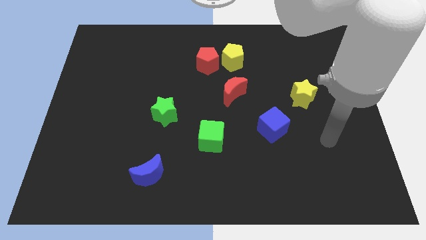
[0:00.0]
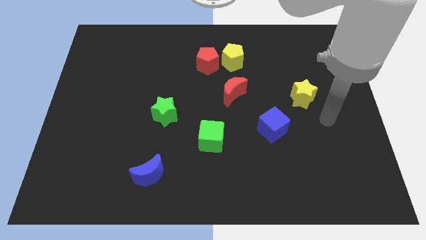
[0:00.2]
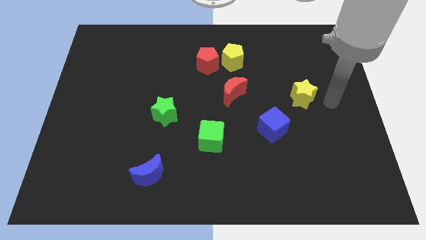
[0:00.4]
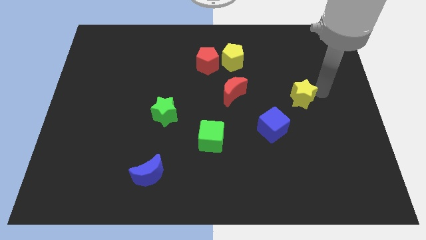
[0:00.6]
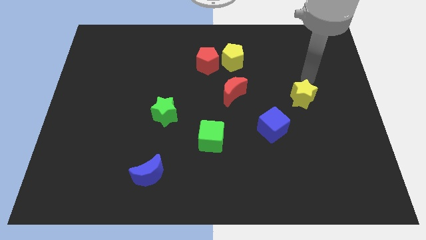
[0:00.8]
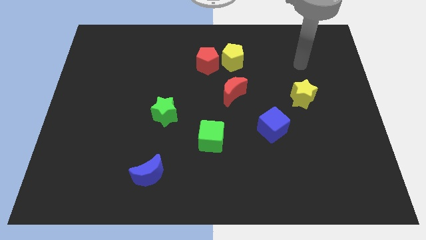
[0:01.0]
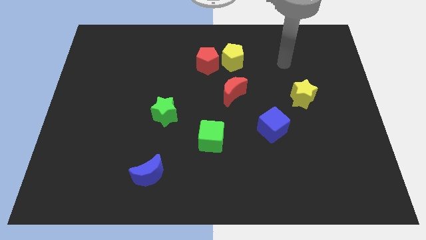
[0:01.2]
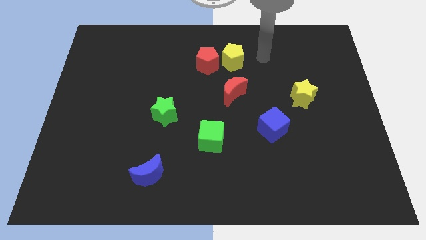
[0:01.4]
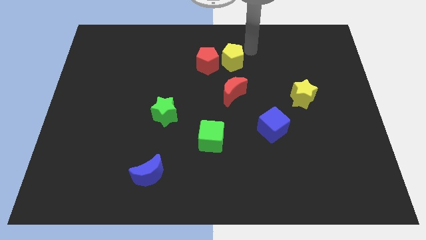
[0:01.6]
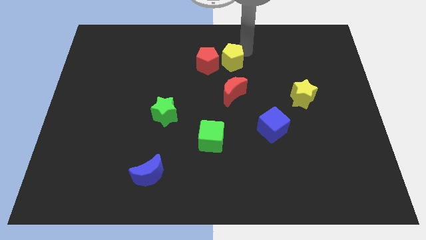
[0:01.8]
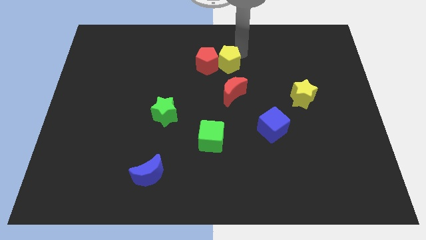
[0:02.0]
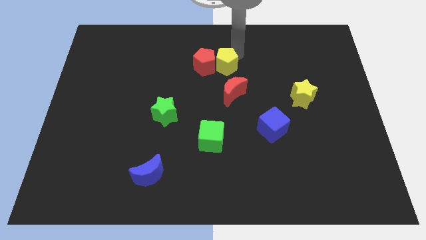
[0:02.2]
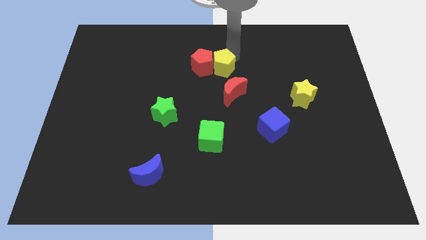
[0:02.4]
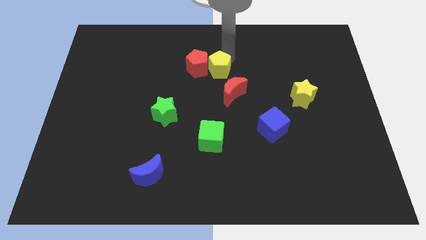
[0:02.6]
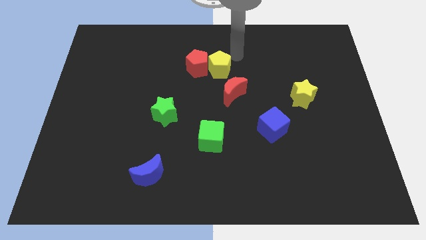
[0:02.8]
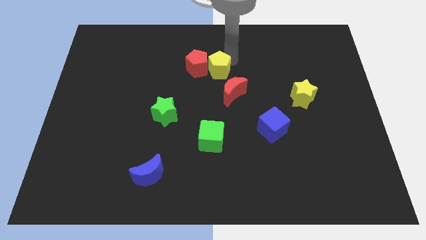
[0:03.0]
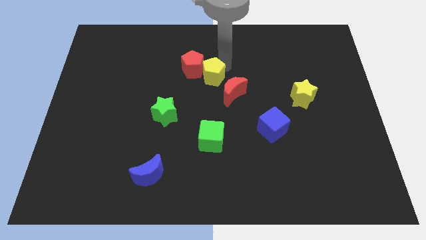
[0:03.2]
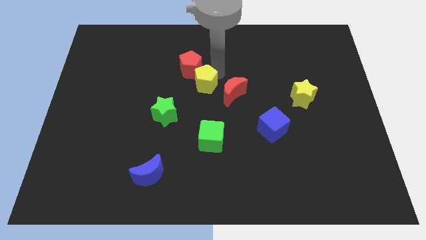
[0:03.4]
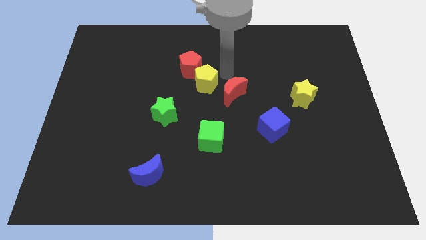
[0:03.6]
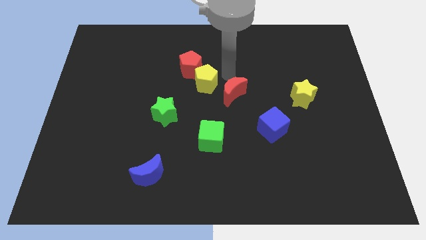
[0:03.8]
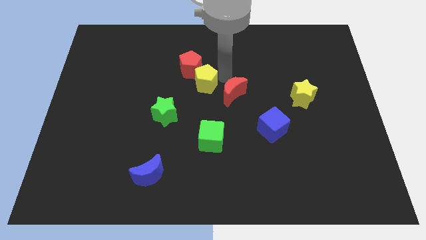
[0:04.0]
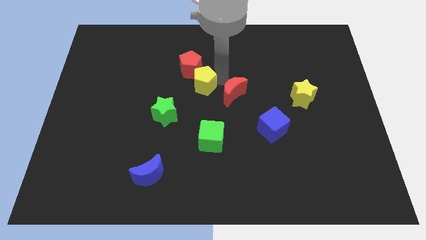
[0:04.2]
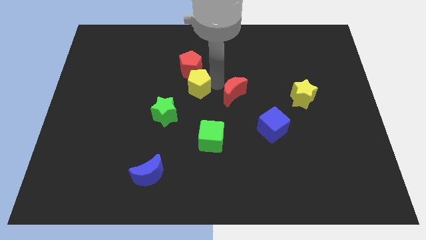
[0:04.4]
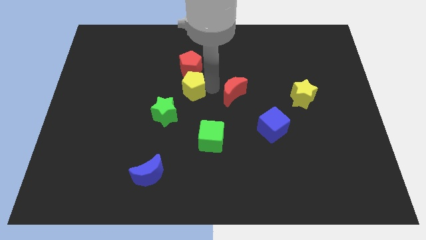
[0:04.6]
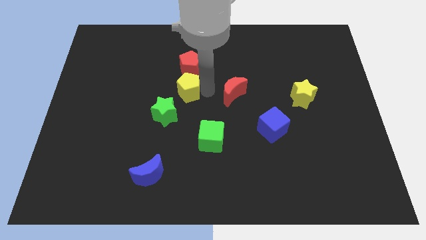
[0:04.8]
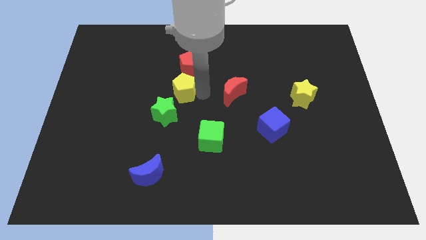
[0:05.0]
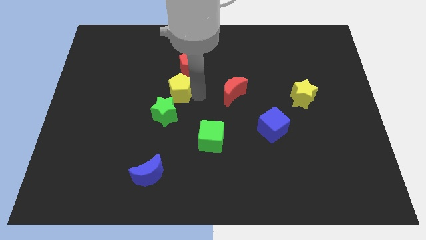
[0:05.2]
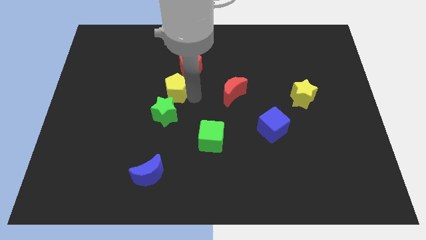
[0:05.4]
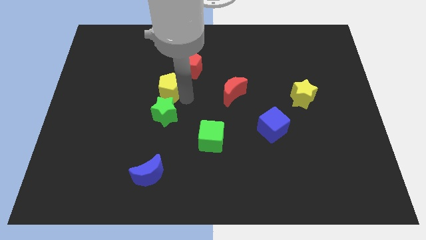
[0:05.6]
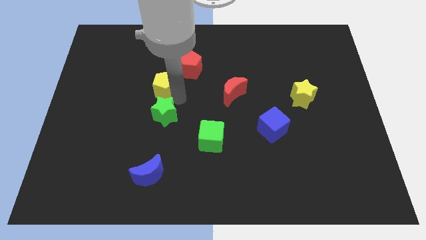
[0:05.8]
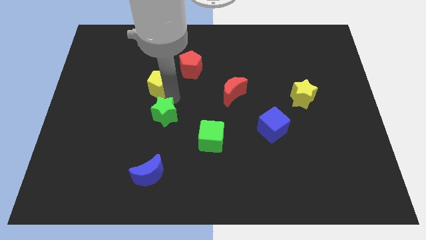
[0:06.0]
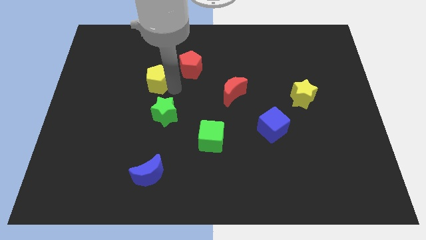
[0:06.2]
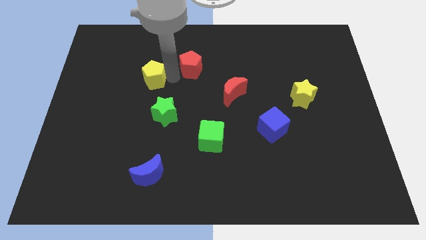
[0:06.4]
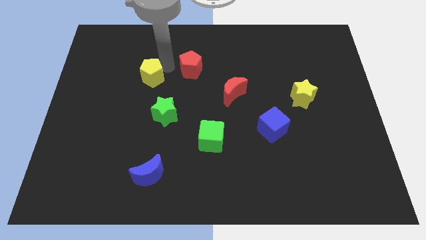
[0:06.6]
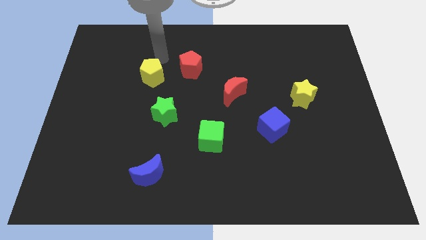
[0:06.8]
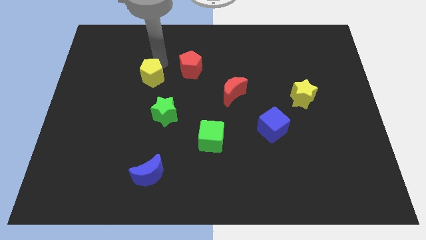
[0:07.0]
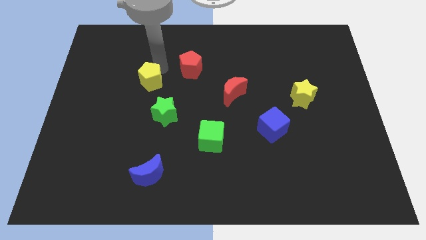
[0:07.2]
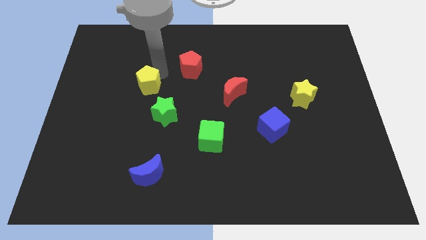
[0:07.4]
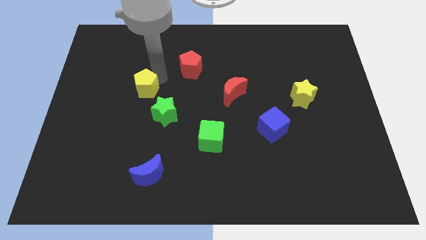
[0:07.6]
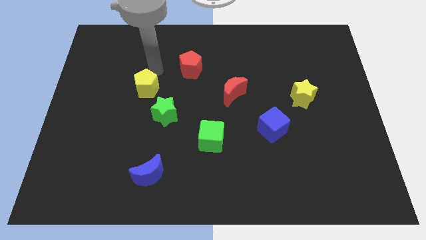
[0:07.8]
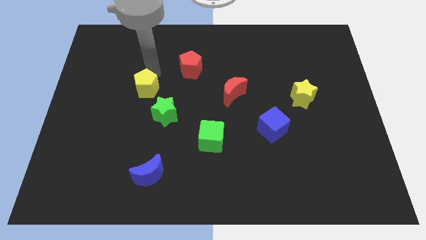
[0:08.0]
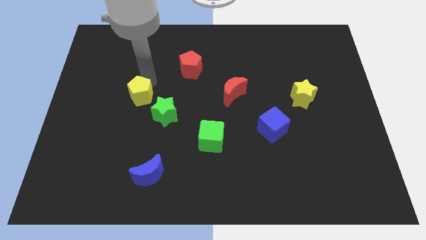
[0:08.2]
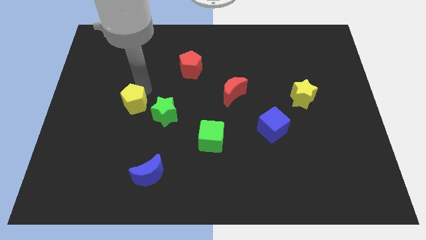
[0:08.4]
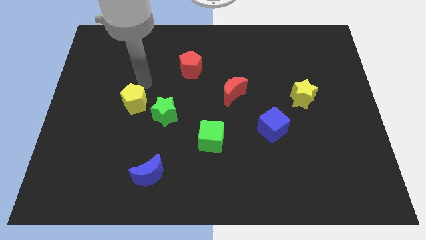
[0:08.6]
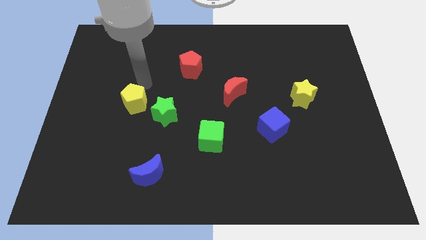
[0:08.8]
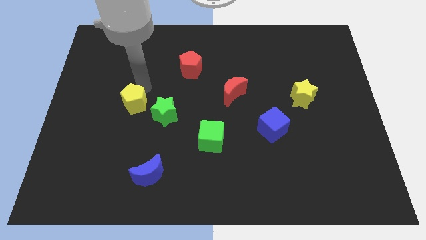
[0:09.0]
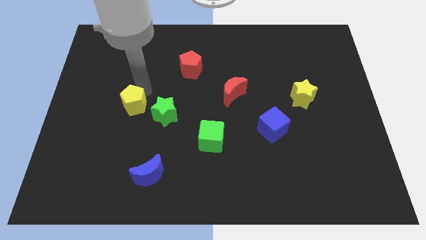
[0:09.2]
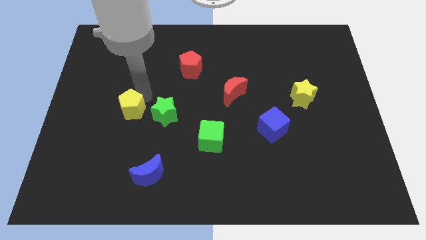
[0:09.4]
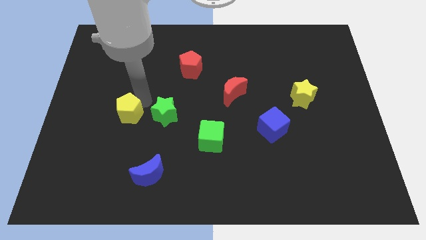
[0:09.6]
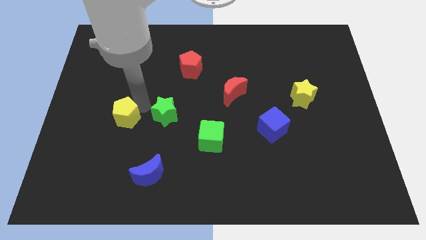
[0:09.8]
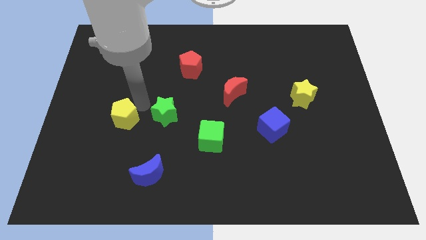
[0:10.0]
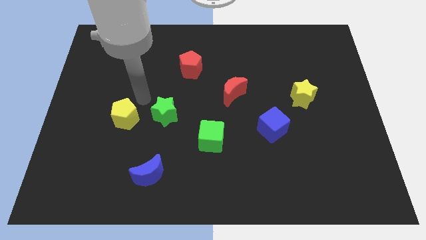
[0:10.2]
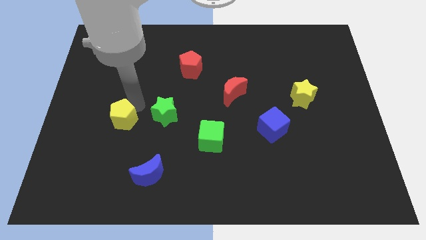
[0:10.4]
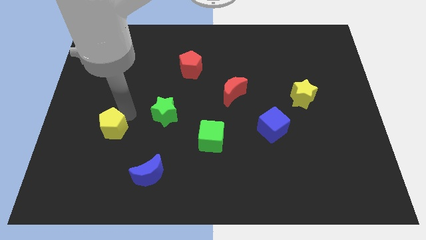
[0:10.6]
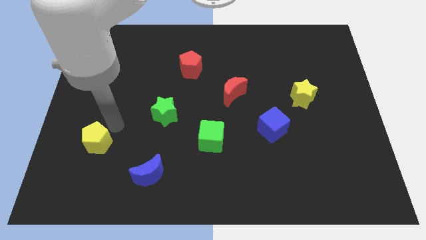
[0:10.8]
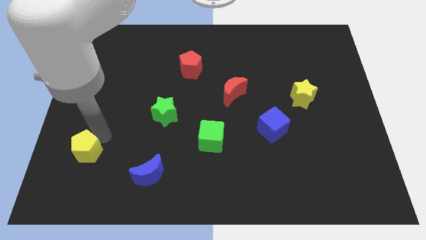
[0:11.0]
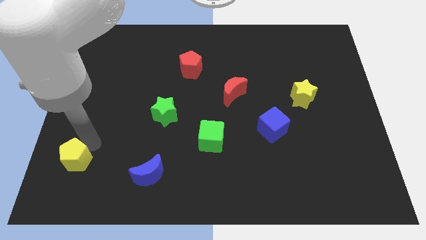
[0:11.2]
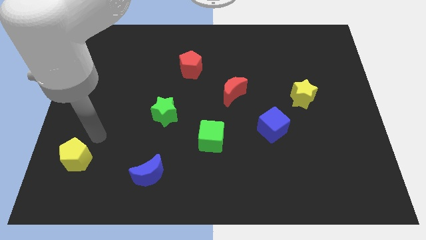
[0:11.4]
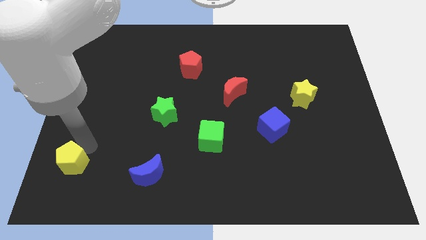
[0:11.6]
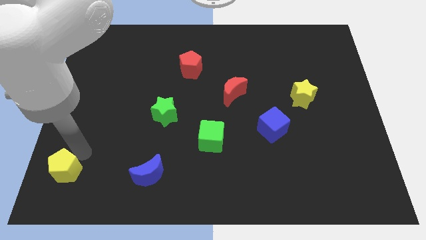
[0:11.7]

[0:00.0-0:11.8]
put the yellow pentagon to the bottom left corner
